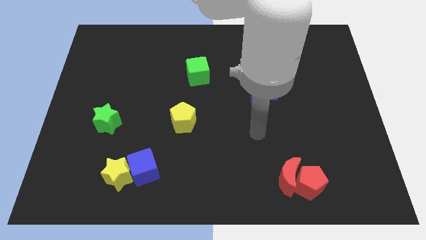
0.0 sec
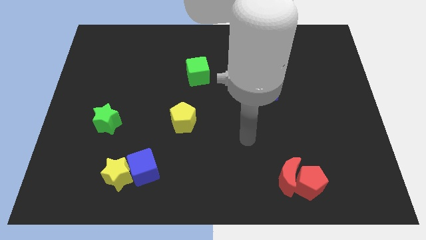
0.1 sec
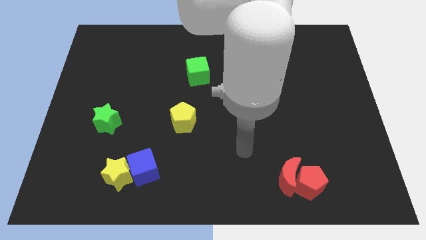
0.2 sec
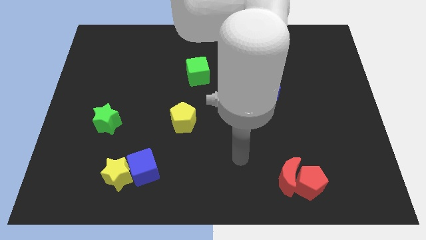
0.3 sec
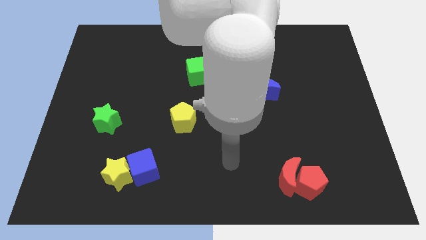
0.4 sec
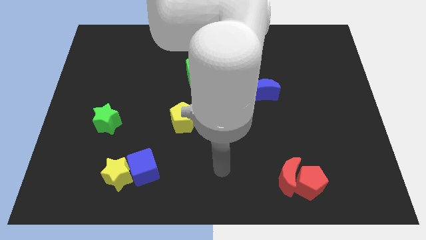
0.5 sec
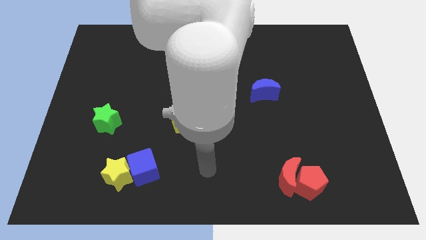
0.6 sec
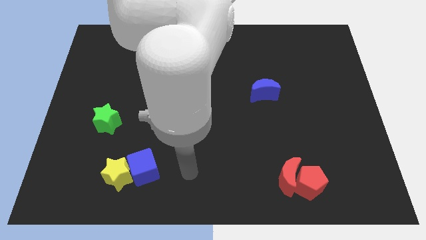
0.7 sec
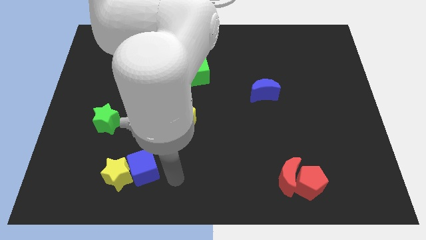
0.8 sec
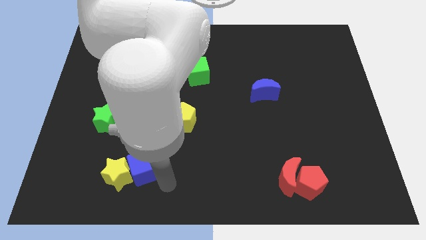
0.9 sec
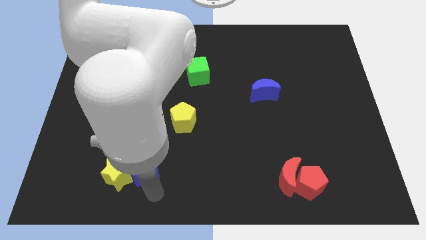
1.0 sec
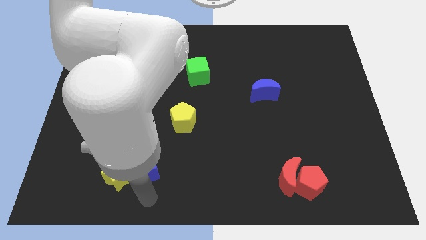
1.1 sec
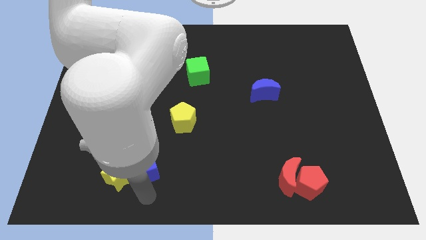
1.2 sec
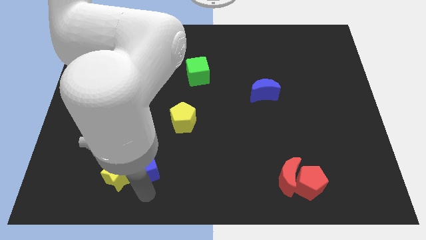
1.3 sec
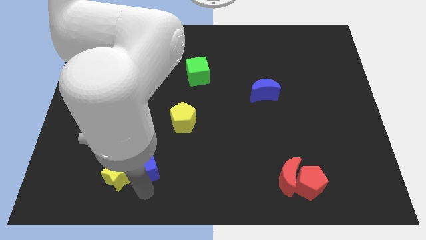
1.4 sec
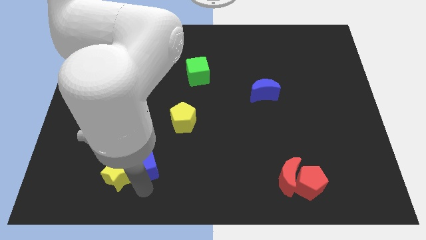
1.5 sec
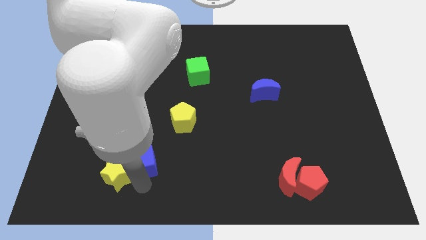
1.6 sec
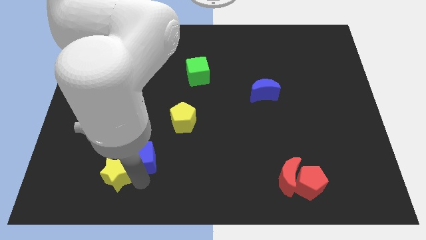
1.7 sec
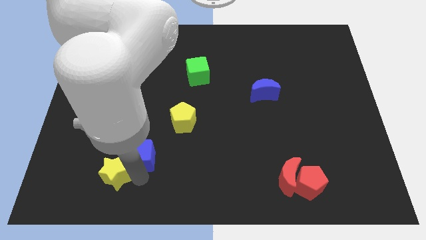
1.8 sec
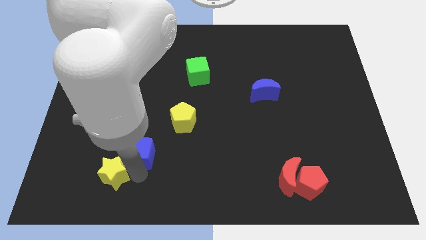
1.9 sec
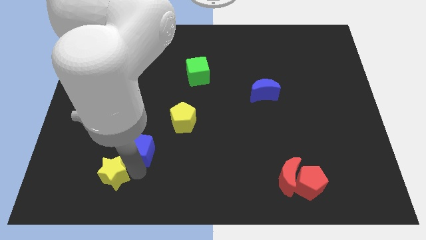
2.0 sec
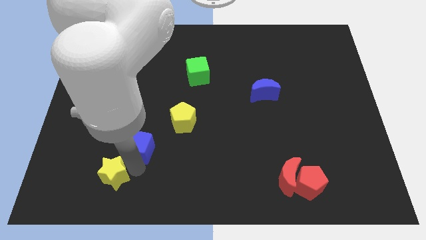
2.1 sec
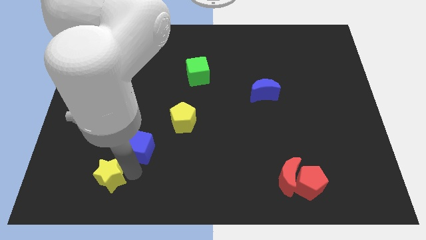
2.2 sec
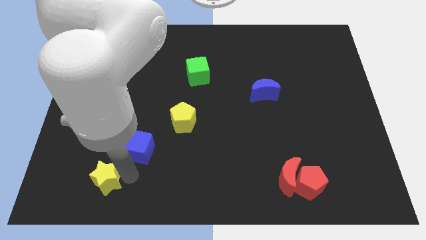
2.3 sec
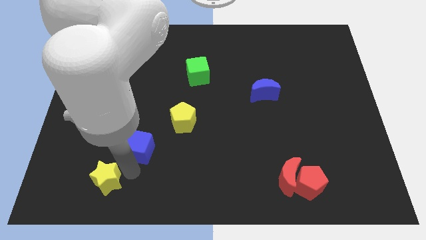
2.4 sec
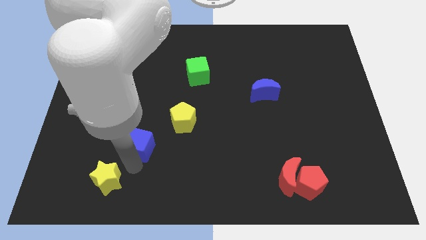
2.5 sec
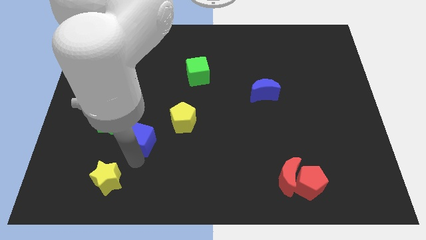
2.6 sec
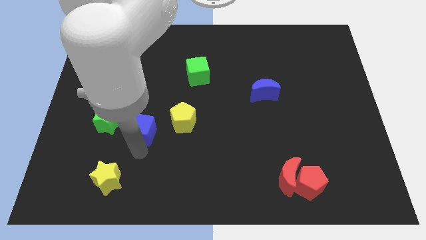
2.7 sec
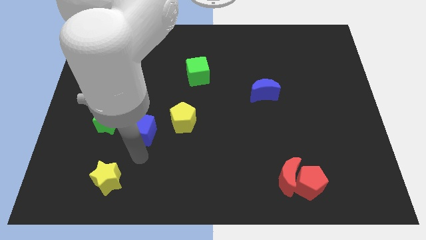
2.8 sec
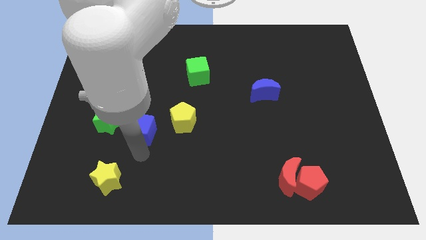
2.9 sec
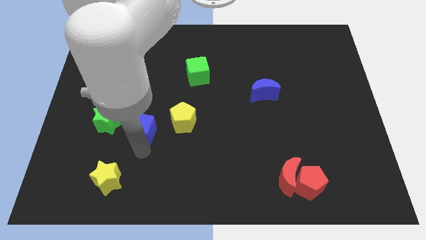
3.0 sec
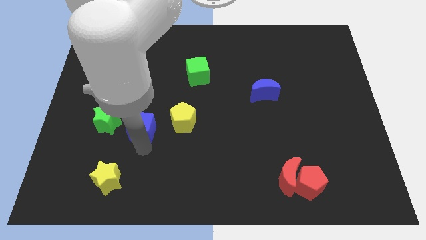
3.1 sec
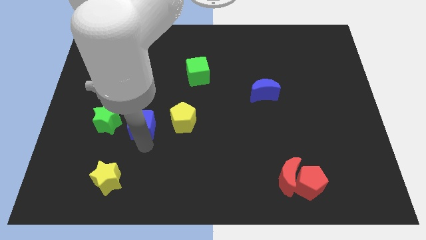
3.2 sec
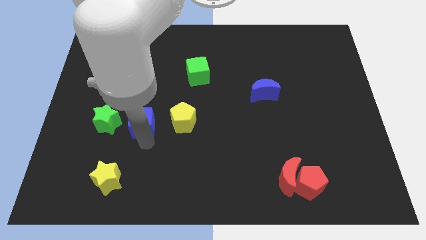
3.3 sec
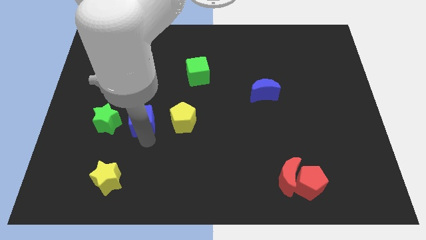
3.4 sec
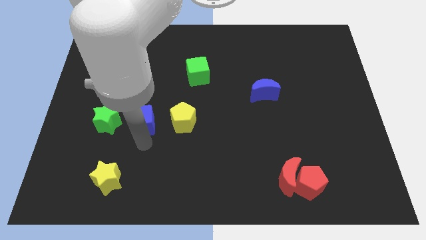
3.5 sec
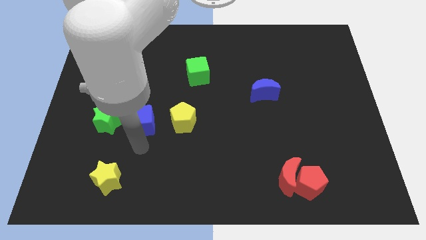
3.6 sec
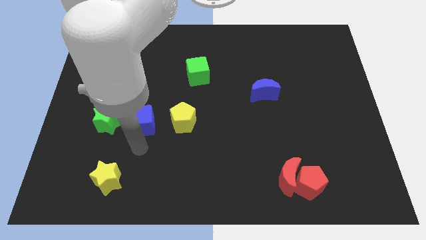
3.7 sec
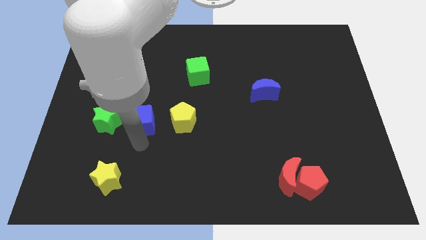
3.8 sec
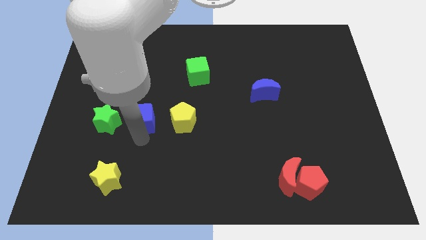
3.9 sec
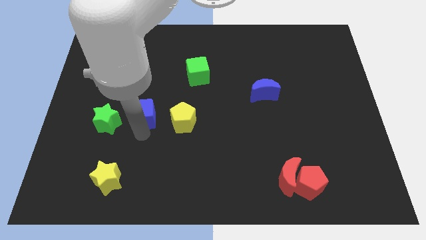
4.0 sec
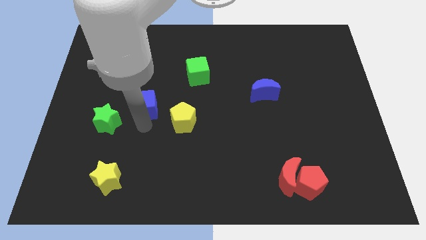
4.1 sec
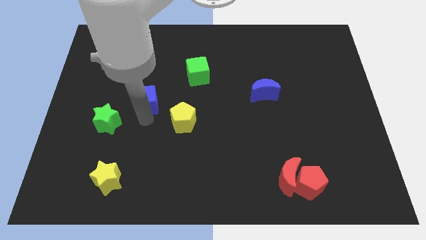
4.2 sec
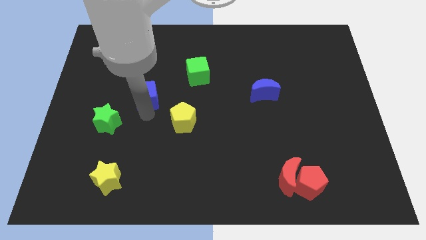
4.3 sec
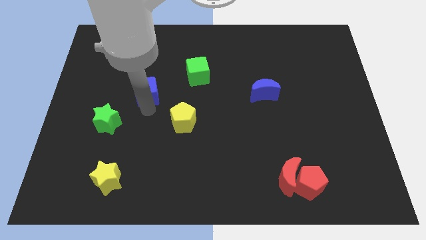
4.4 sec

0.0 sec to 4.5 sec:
move the blue cube upwards

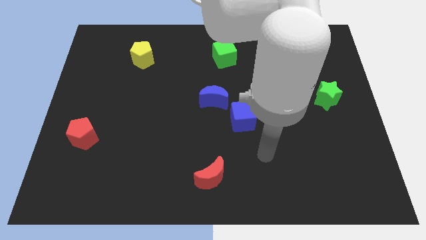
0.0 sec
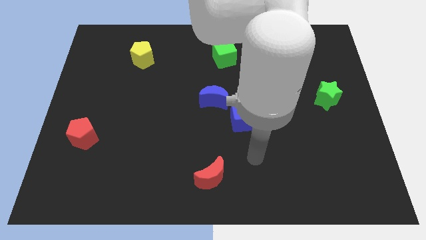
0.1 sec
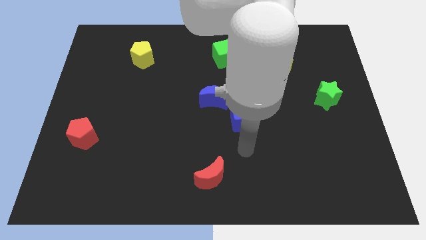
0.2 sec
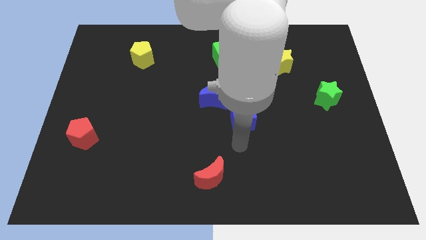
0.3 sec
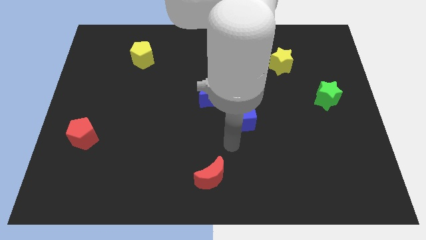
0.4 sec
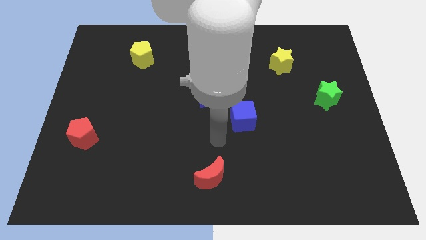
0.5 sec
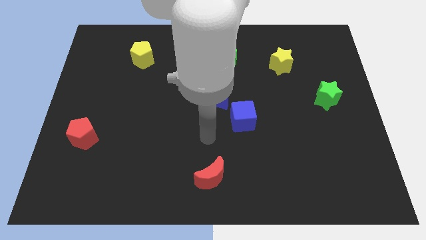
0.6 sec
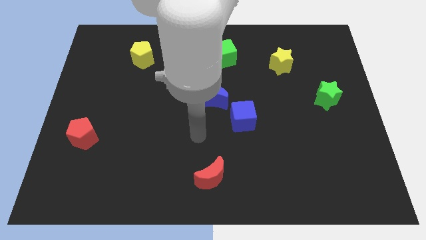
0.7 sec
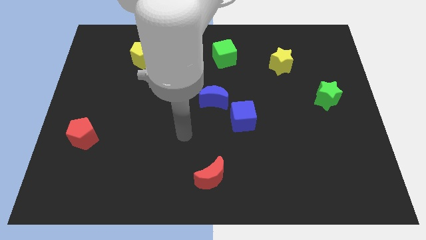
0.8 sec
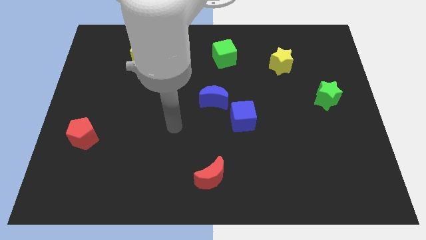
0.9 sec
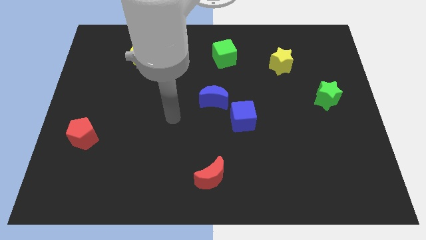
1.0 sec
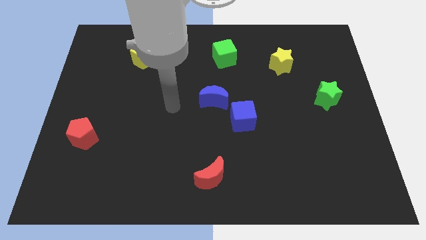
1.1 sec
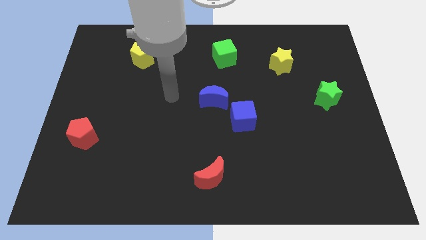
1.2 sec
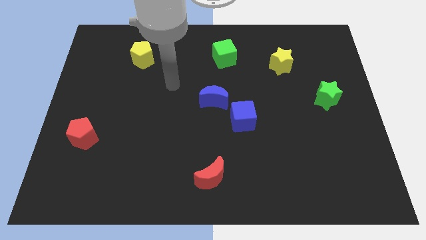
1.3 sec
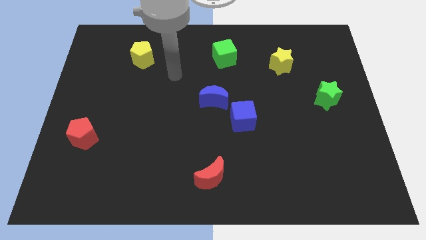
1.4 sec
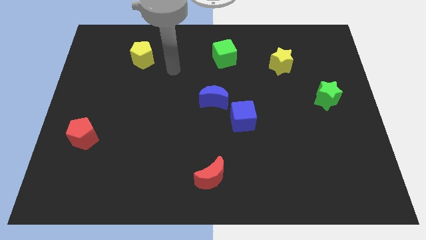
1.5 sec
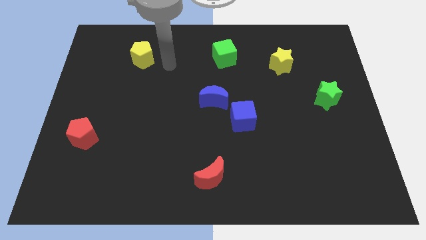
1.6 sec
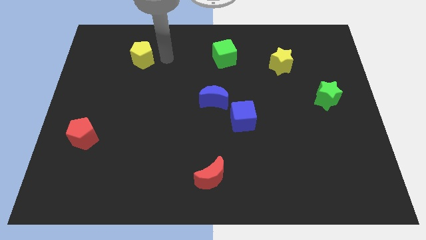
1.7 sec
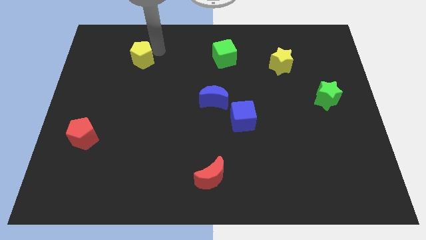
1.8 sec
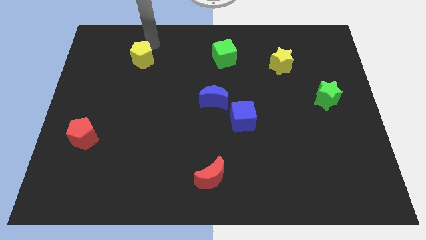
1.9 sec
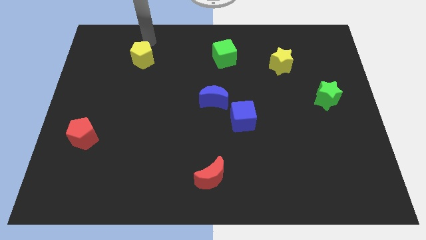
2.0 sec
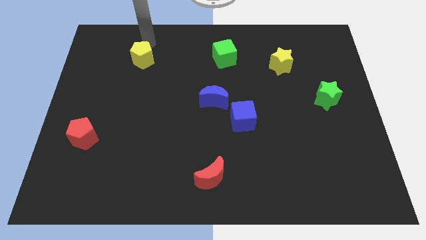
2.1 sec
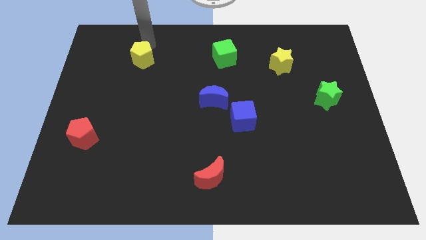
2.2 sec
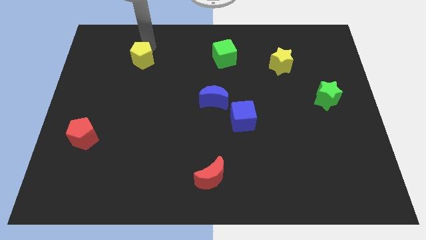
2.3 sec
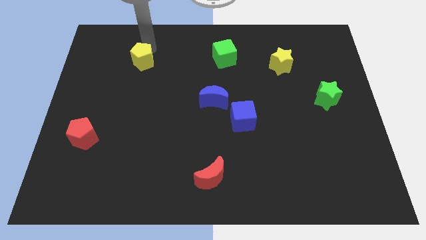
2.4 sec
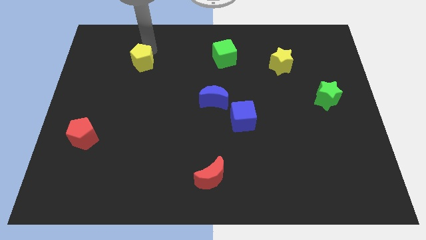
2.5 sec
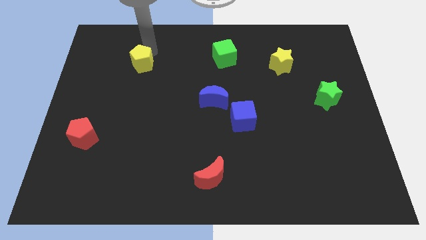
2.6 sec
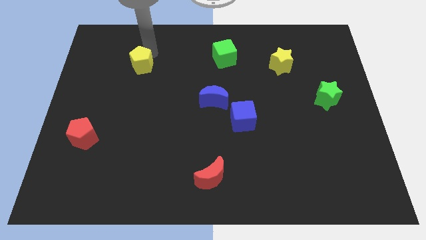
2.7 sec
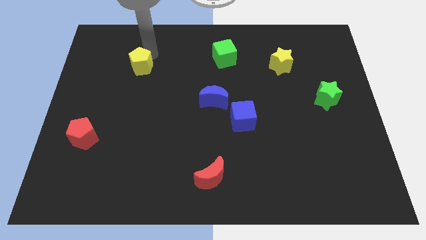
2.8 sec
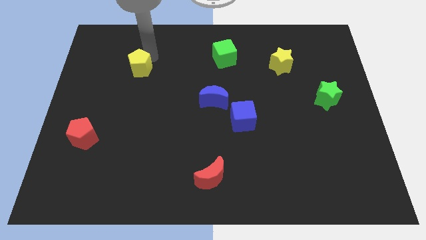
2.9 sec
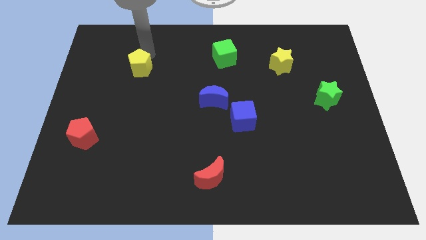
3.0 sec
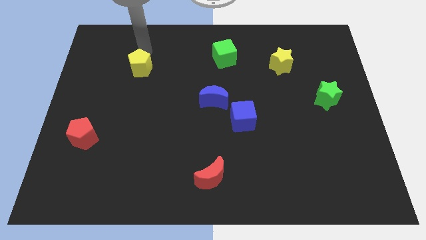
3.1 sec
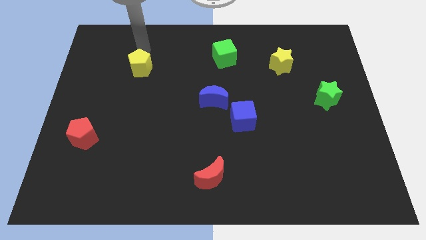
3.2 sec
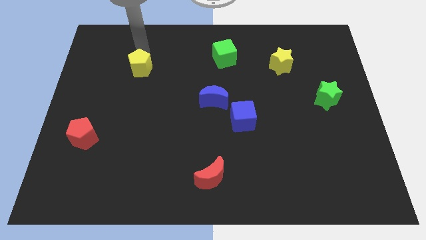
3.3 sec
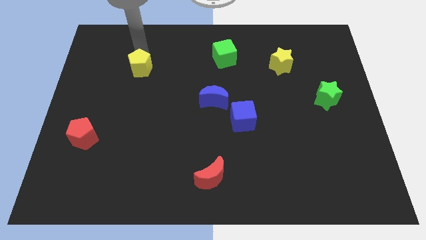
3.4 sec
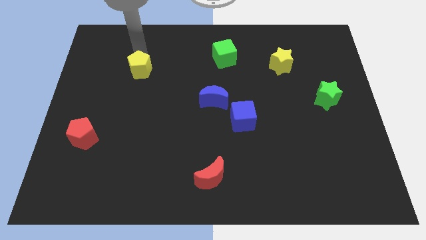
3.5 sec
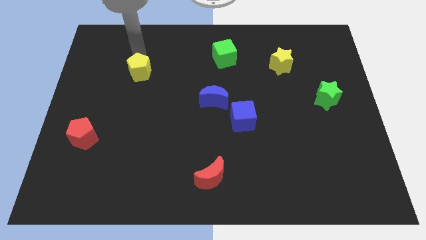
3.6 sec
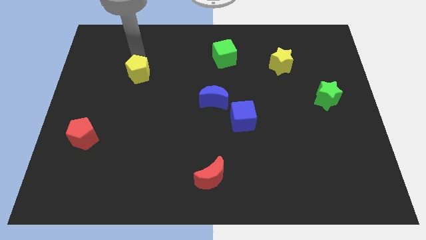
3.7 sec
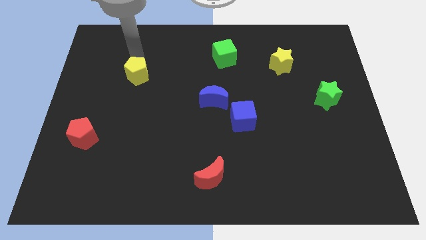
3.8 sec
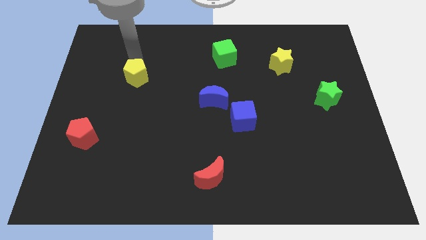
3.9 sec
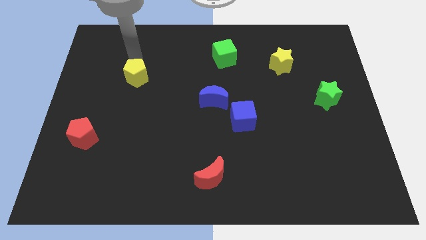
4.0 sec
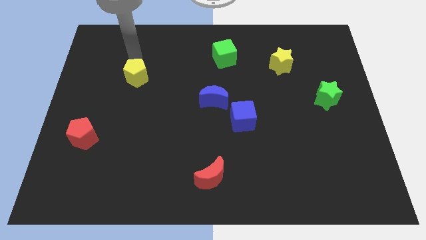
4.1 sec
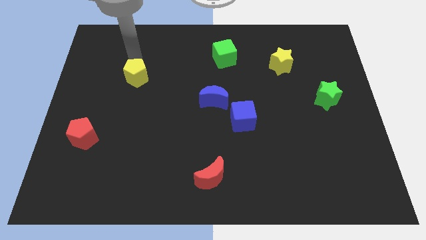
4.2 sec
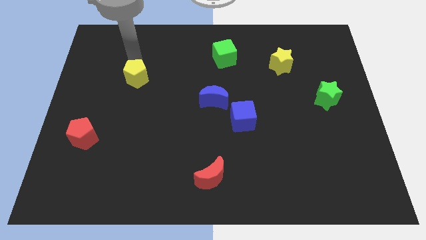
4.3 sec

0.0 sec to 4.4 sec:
slide the yellow pentagon slightly down
